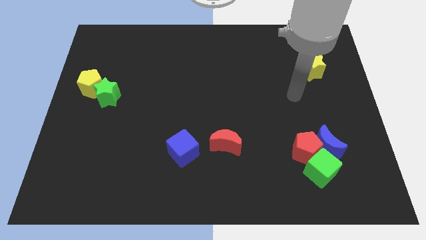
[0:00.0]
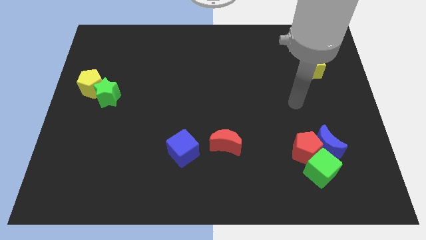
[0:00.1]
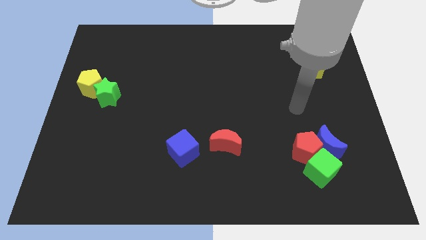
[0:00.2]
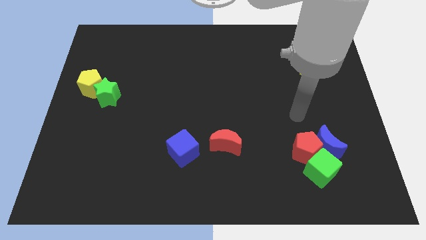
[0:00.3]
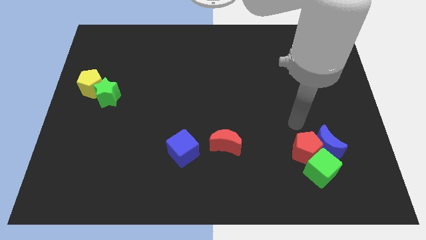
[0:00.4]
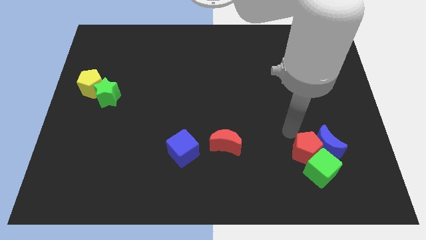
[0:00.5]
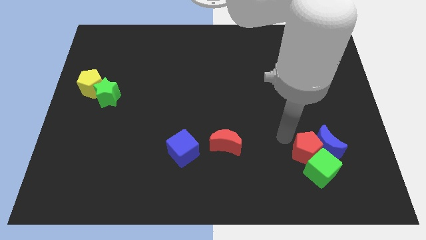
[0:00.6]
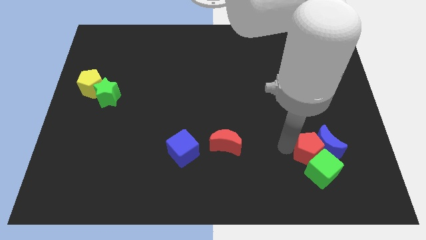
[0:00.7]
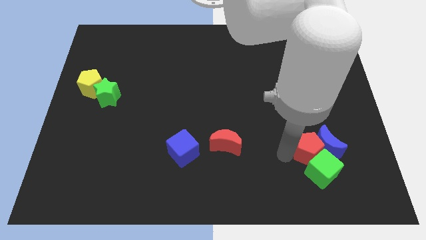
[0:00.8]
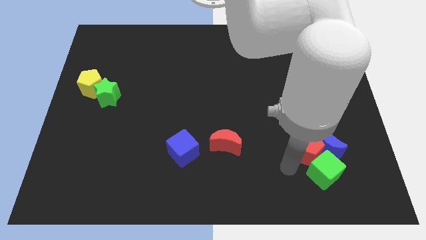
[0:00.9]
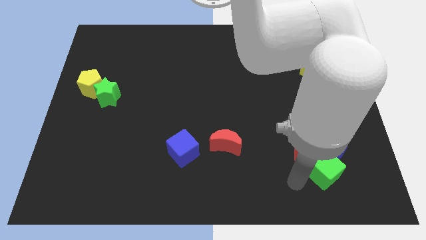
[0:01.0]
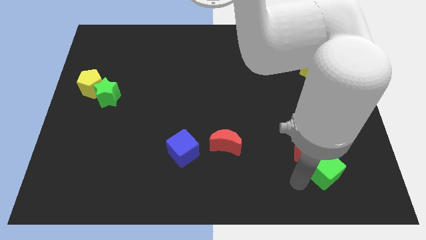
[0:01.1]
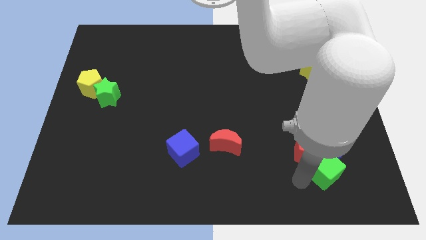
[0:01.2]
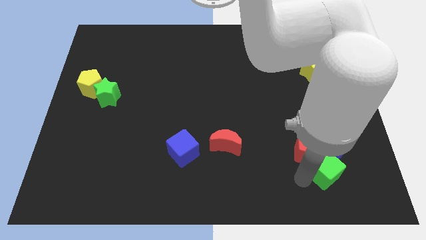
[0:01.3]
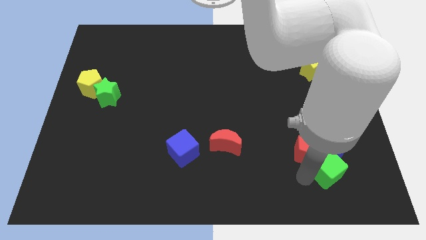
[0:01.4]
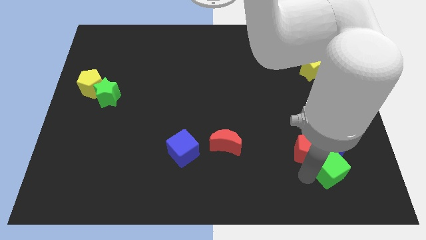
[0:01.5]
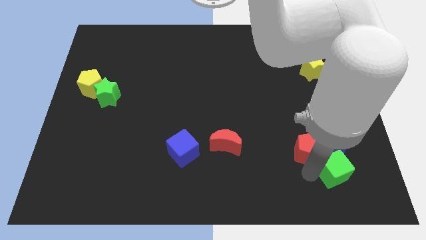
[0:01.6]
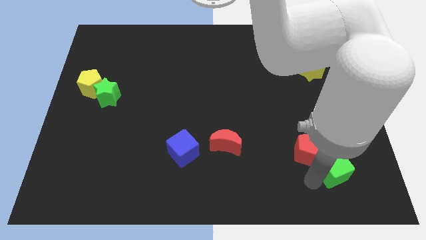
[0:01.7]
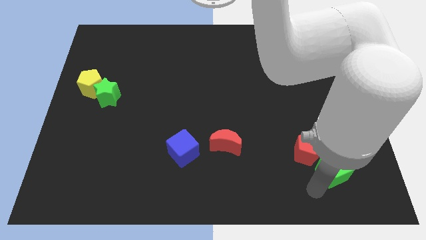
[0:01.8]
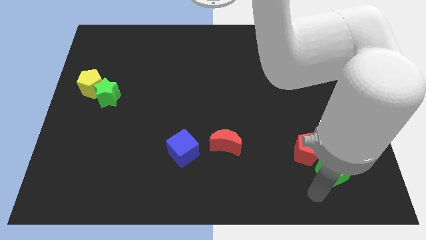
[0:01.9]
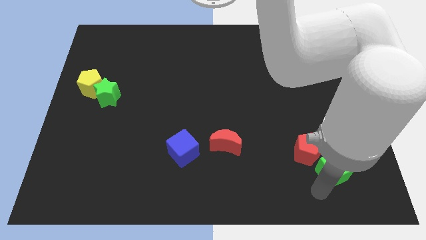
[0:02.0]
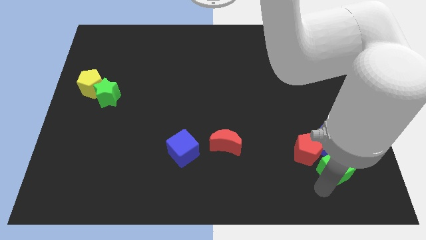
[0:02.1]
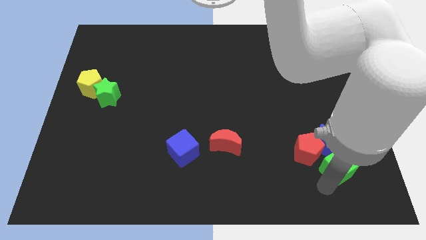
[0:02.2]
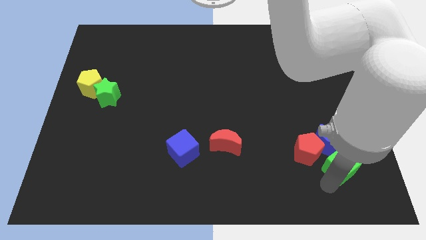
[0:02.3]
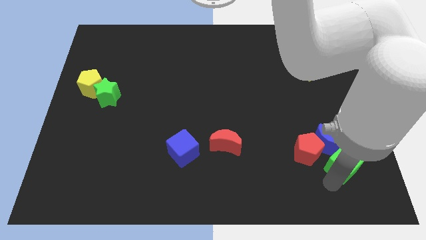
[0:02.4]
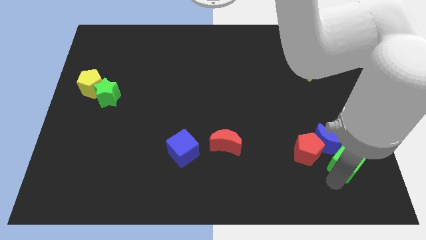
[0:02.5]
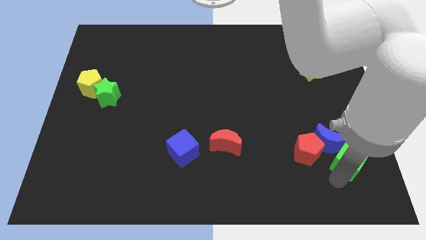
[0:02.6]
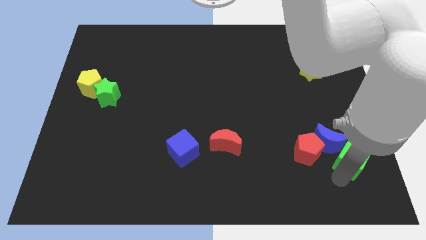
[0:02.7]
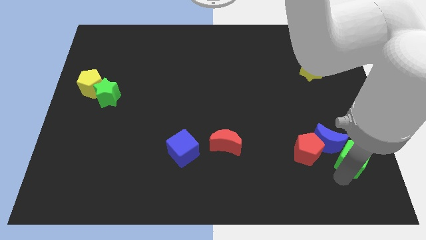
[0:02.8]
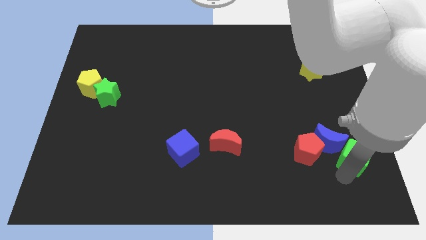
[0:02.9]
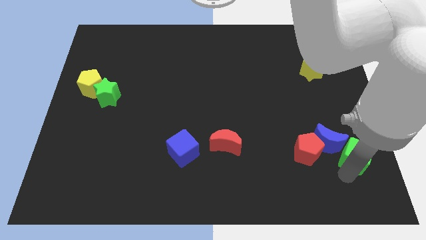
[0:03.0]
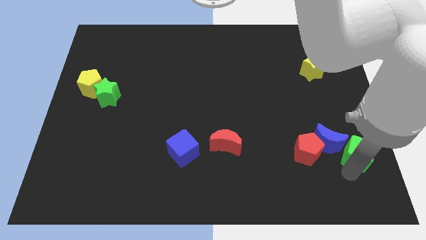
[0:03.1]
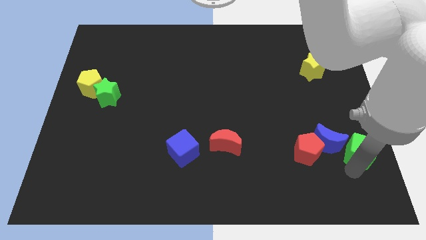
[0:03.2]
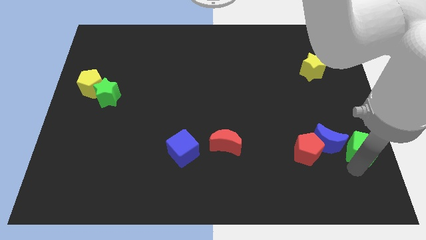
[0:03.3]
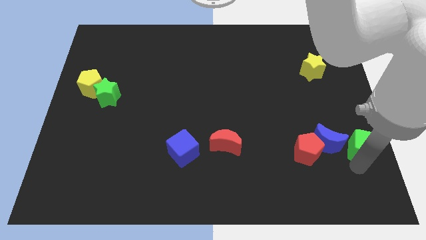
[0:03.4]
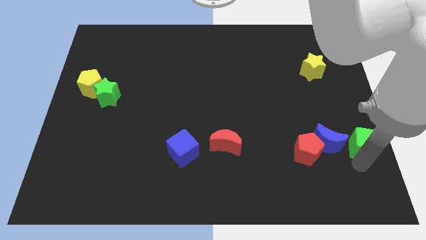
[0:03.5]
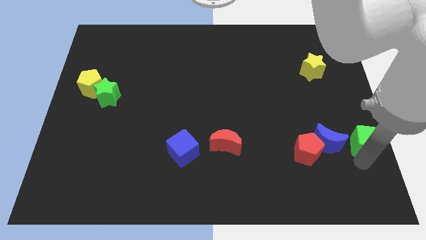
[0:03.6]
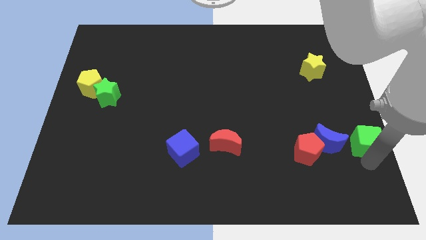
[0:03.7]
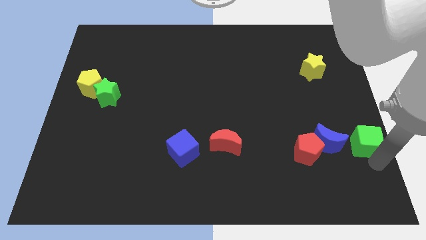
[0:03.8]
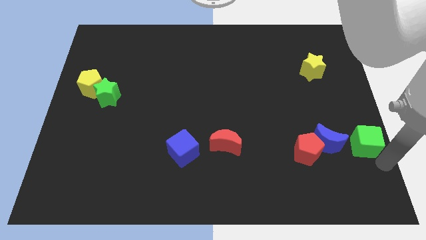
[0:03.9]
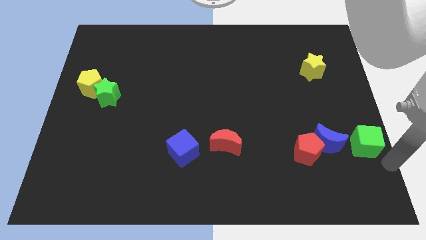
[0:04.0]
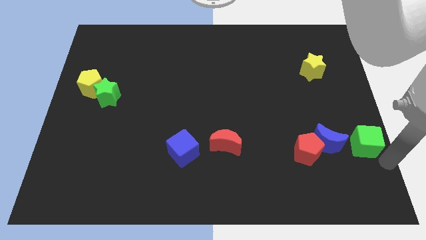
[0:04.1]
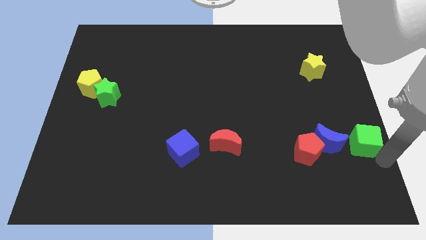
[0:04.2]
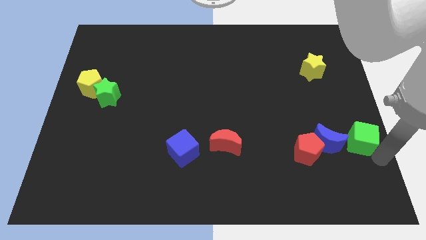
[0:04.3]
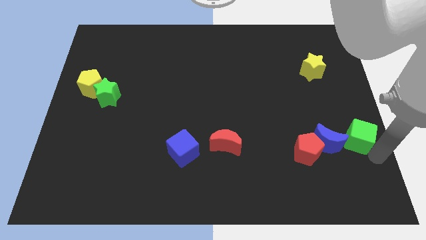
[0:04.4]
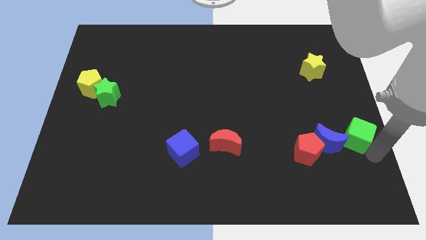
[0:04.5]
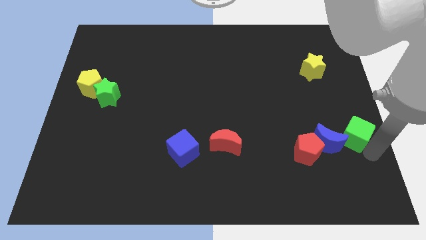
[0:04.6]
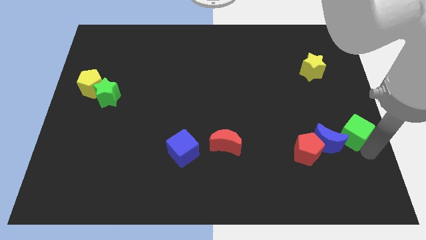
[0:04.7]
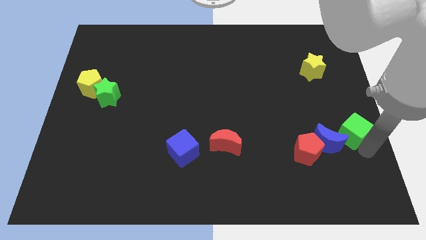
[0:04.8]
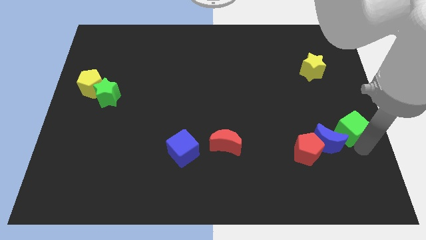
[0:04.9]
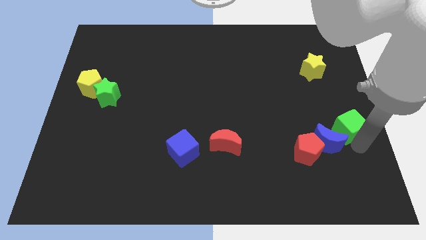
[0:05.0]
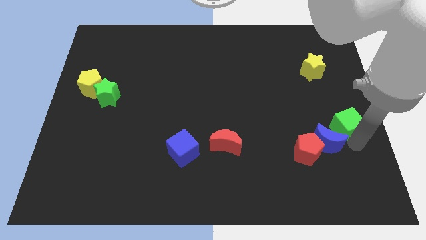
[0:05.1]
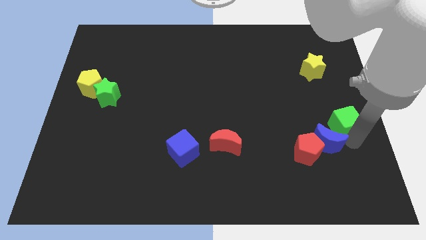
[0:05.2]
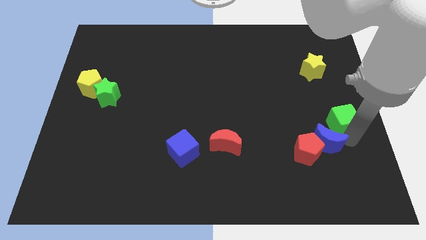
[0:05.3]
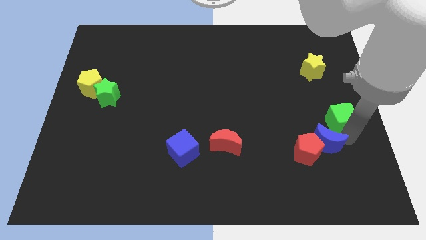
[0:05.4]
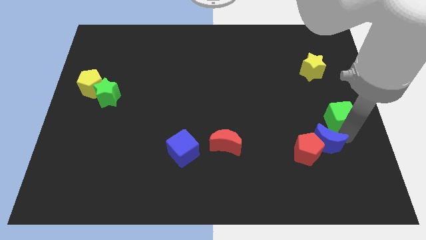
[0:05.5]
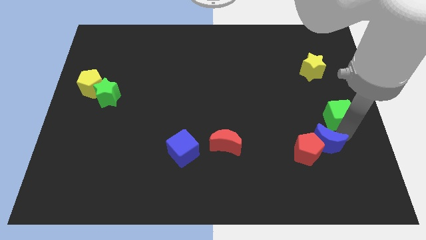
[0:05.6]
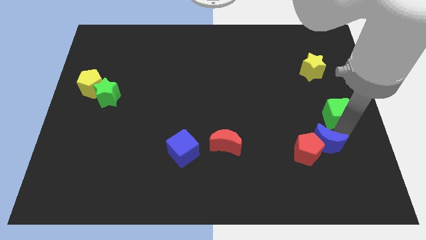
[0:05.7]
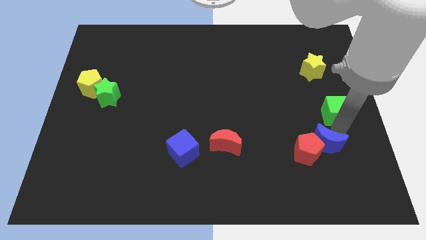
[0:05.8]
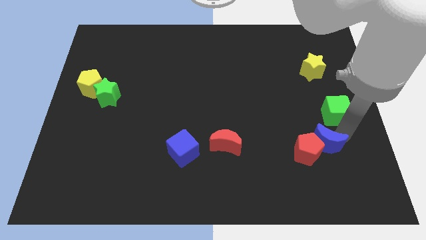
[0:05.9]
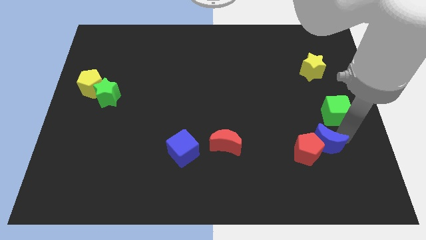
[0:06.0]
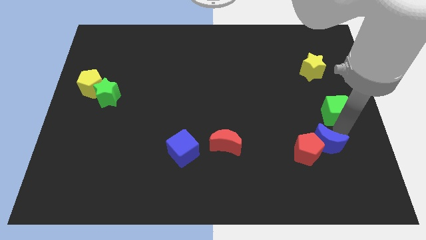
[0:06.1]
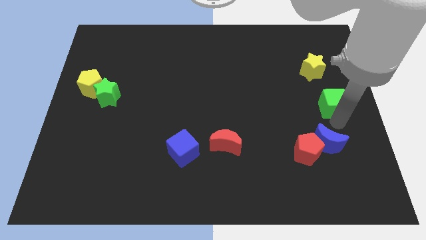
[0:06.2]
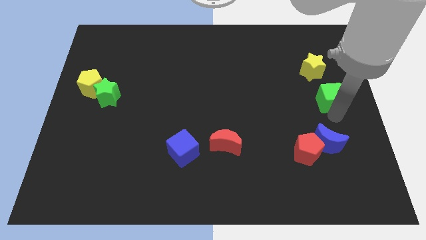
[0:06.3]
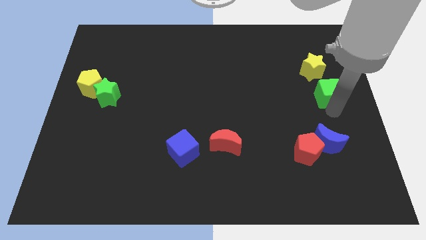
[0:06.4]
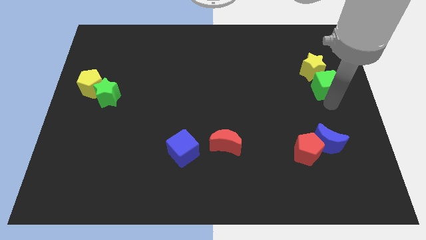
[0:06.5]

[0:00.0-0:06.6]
put the green cube next to the yellow star

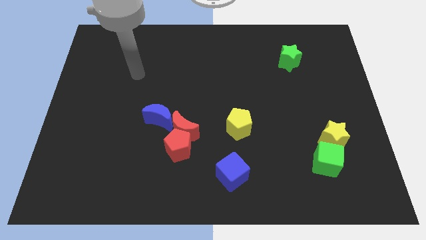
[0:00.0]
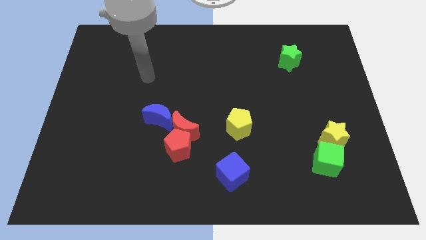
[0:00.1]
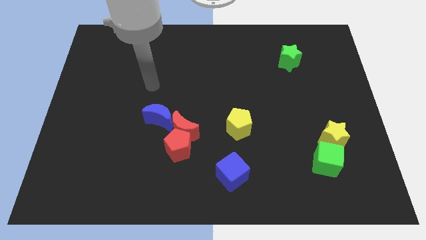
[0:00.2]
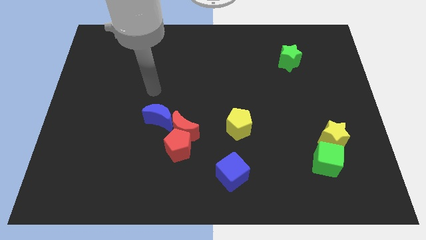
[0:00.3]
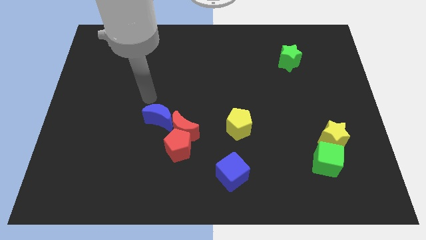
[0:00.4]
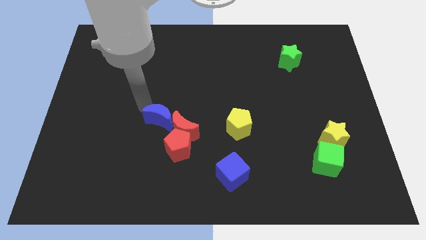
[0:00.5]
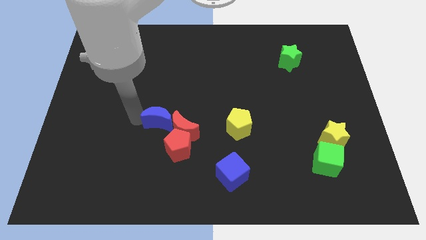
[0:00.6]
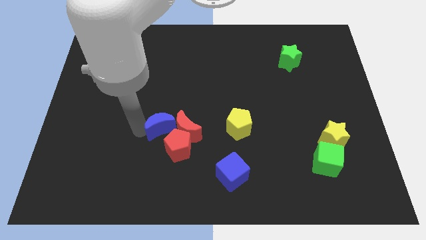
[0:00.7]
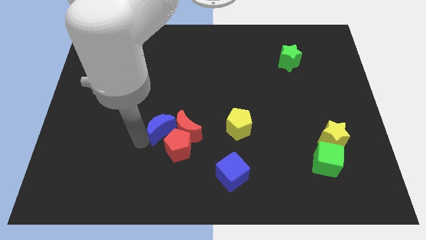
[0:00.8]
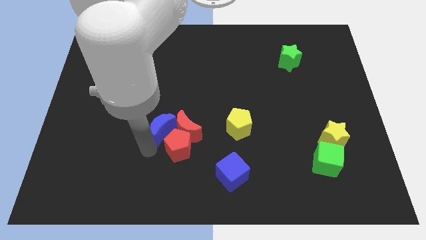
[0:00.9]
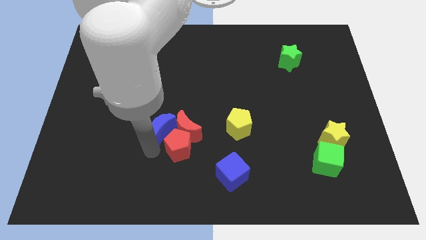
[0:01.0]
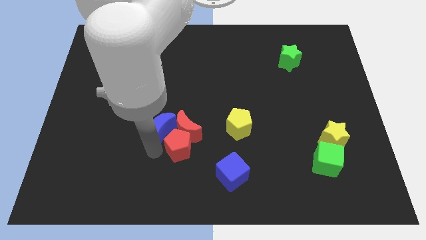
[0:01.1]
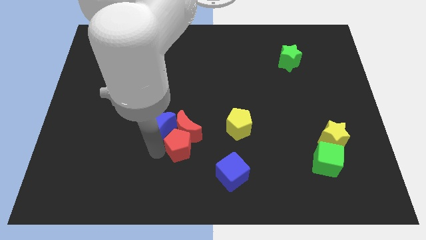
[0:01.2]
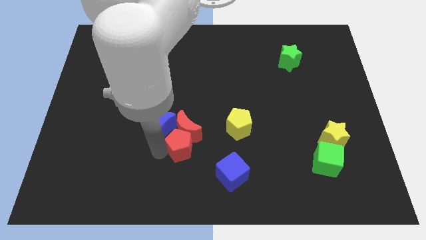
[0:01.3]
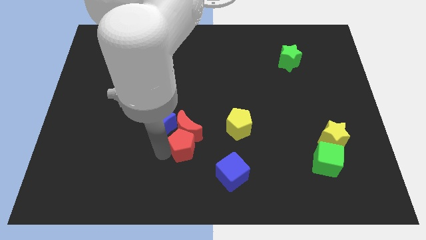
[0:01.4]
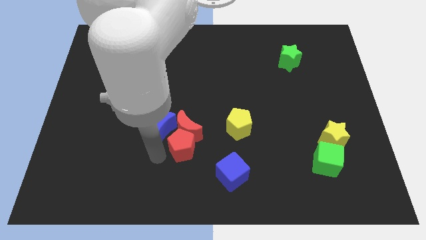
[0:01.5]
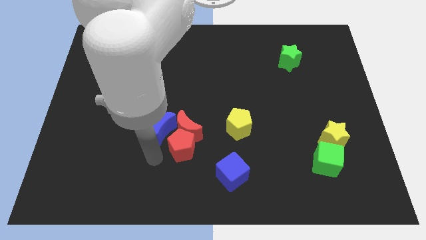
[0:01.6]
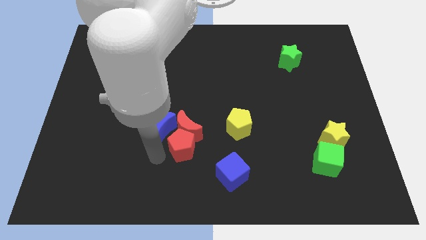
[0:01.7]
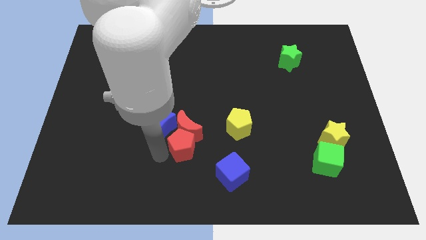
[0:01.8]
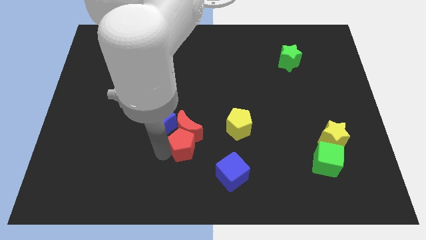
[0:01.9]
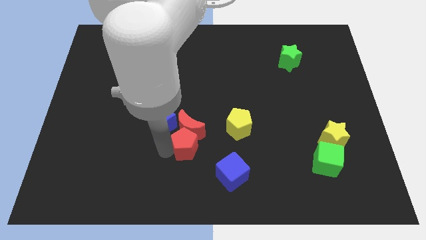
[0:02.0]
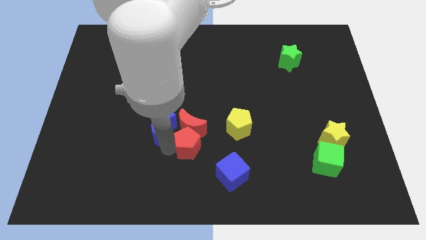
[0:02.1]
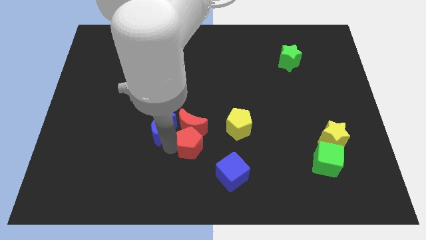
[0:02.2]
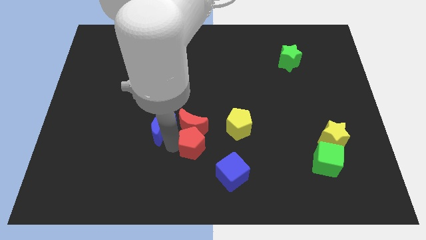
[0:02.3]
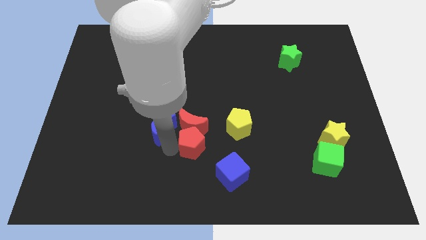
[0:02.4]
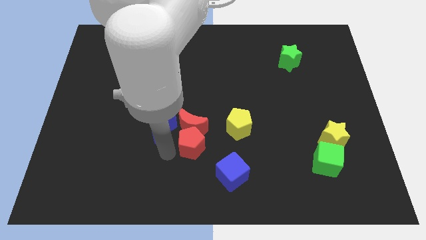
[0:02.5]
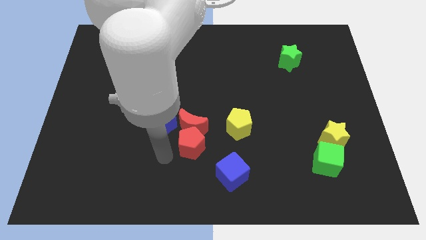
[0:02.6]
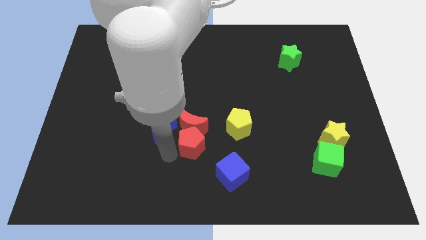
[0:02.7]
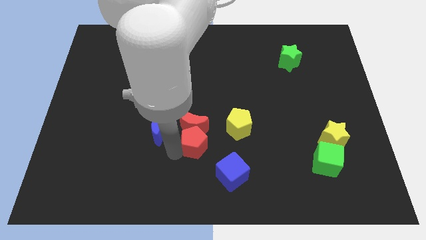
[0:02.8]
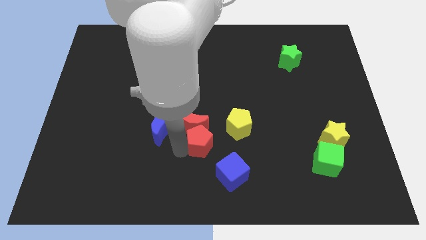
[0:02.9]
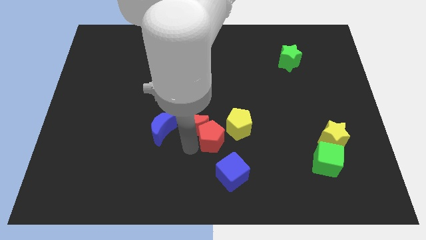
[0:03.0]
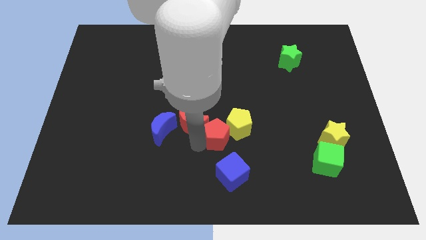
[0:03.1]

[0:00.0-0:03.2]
put the red pentagon next to the yellow pentagon
